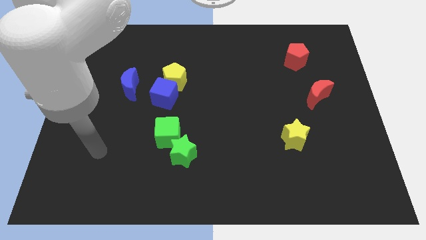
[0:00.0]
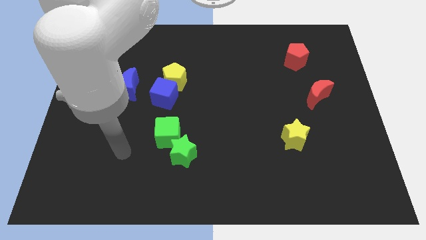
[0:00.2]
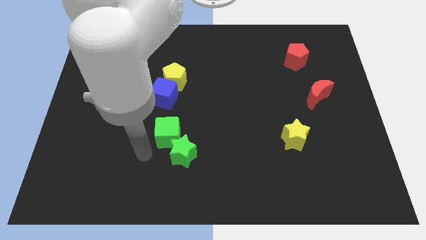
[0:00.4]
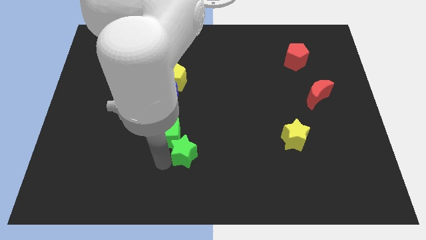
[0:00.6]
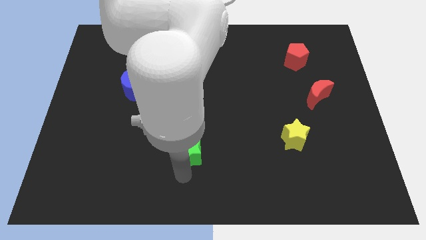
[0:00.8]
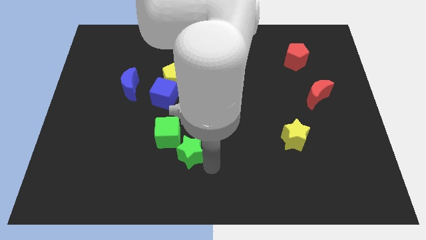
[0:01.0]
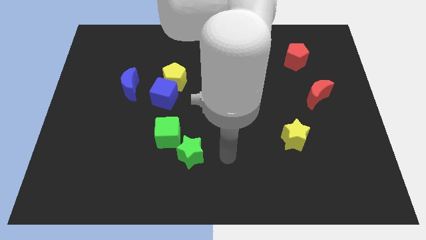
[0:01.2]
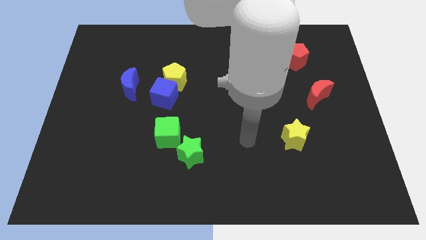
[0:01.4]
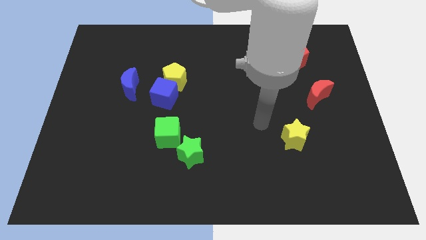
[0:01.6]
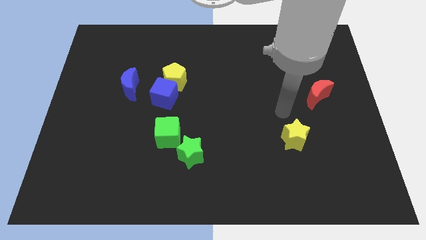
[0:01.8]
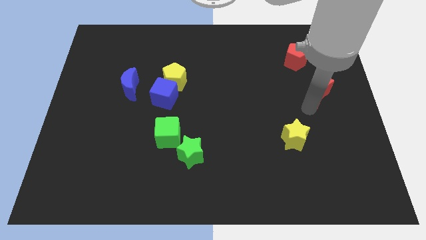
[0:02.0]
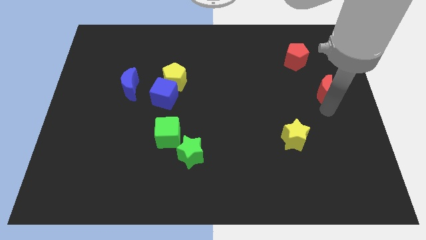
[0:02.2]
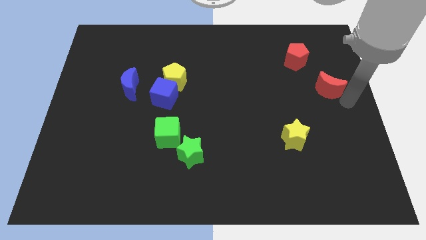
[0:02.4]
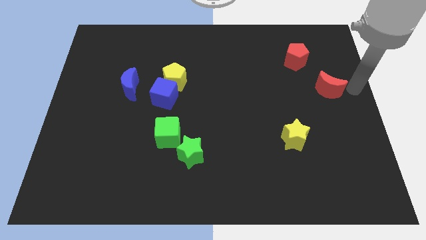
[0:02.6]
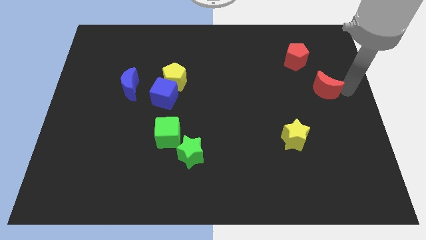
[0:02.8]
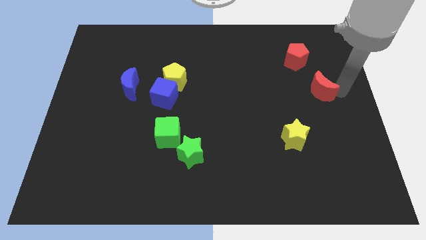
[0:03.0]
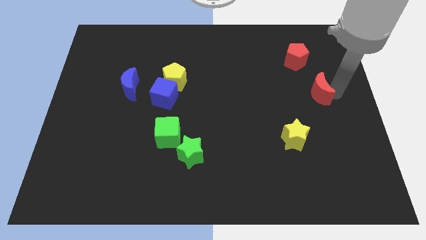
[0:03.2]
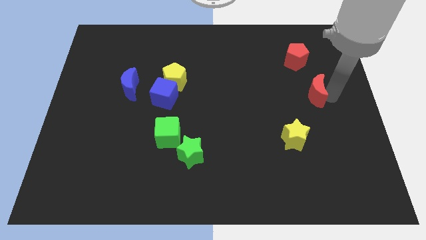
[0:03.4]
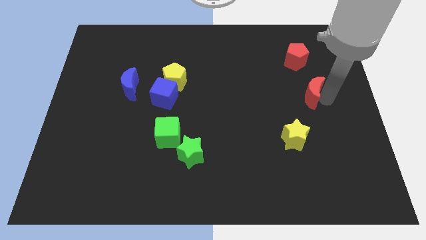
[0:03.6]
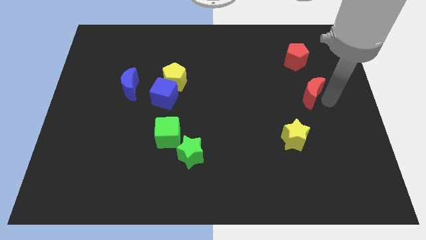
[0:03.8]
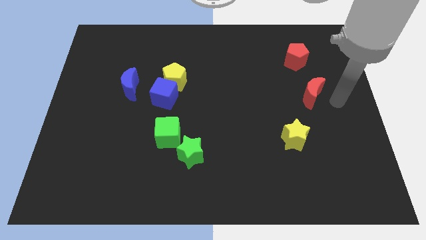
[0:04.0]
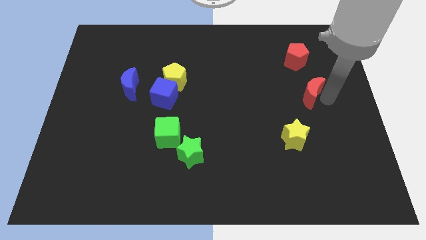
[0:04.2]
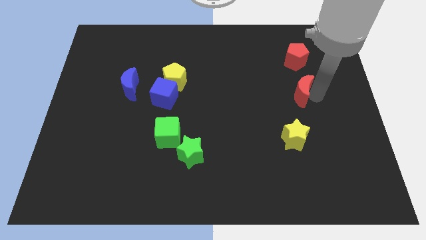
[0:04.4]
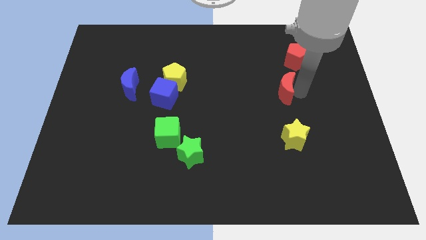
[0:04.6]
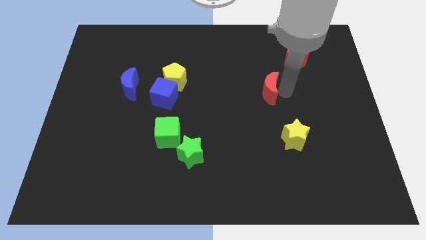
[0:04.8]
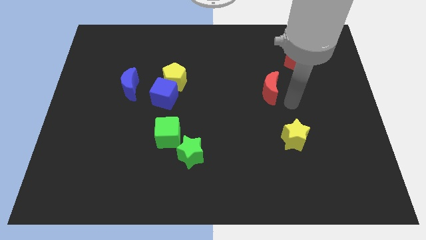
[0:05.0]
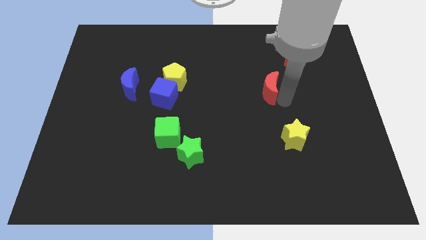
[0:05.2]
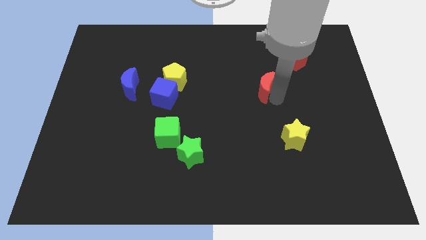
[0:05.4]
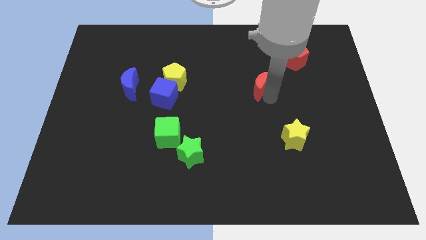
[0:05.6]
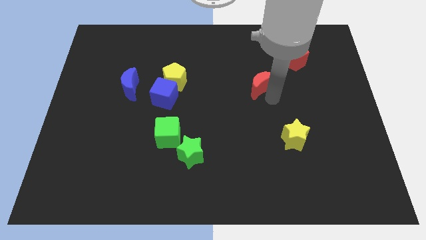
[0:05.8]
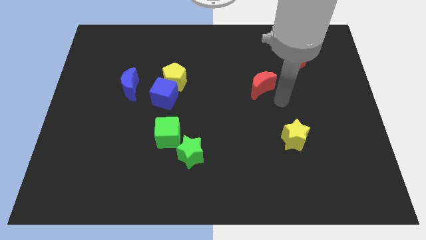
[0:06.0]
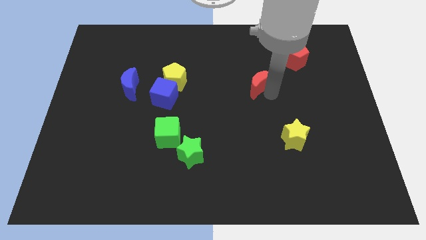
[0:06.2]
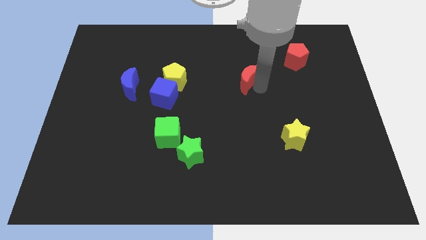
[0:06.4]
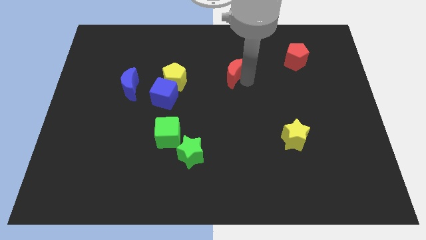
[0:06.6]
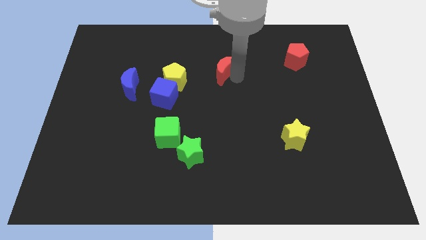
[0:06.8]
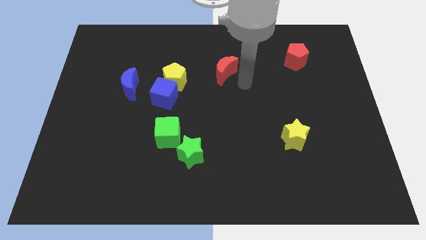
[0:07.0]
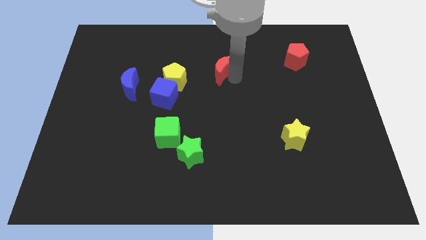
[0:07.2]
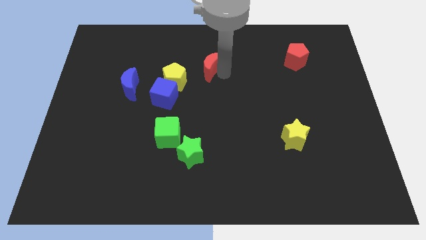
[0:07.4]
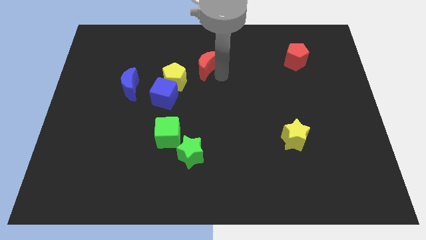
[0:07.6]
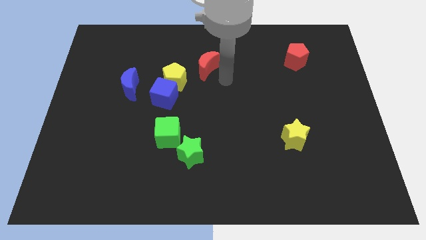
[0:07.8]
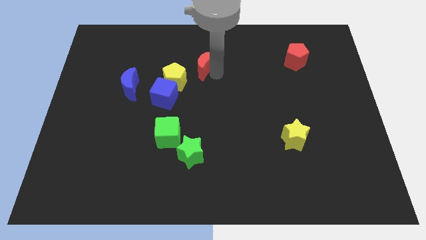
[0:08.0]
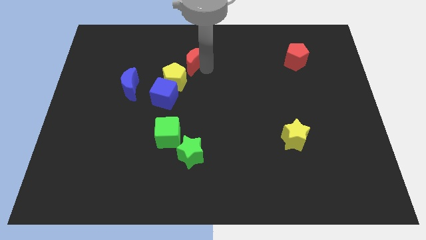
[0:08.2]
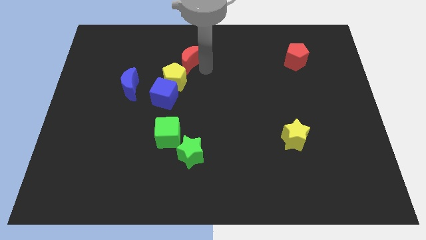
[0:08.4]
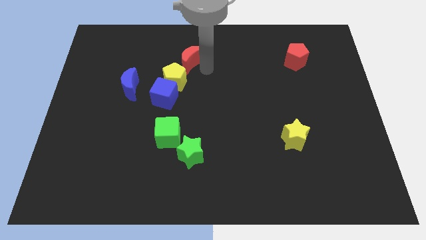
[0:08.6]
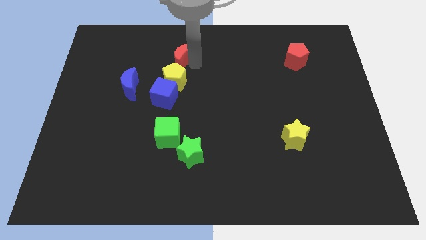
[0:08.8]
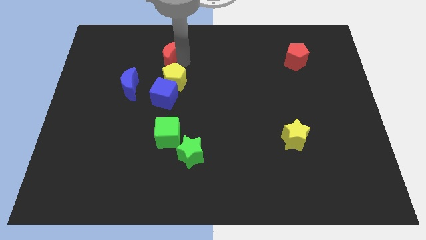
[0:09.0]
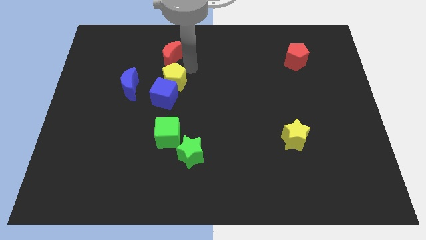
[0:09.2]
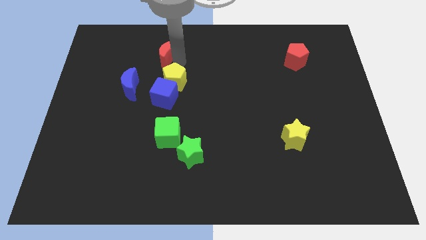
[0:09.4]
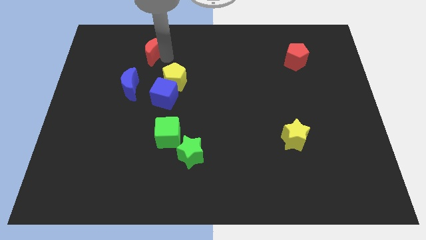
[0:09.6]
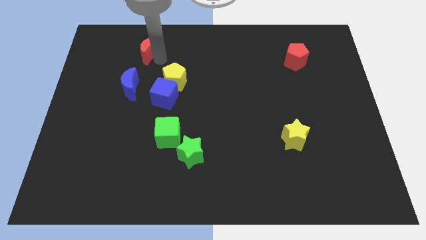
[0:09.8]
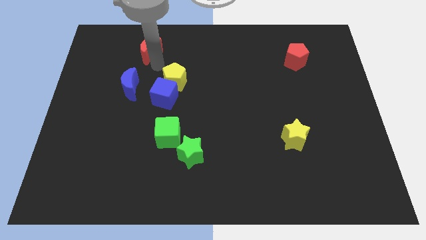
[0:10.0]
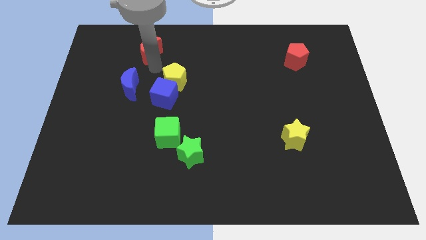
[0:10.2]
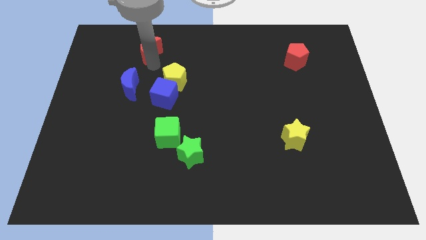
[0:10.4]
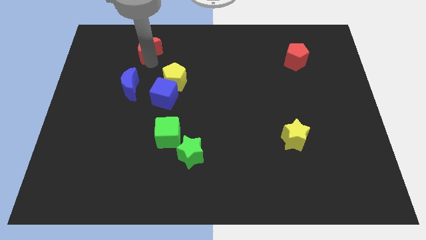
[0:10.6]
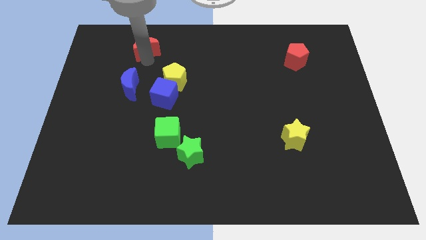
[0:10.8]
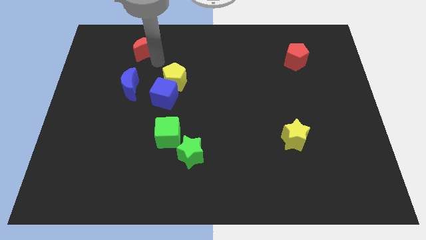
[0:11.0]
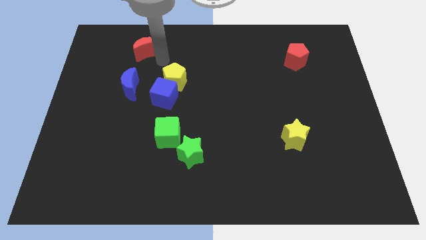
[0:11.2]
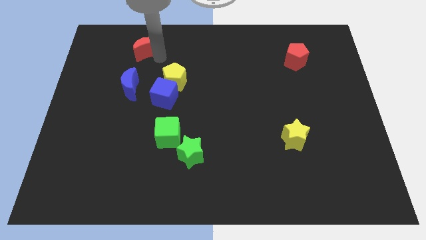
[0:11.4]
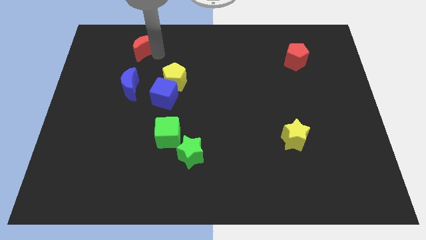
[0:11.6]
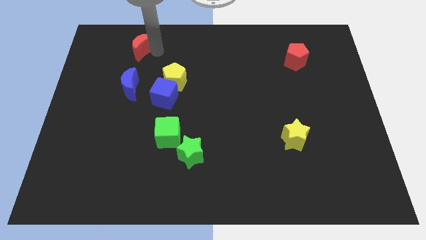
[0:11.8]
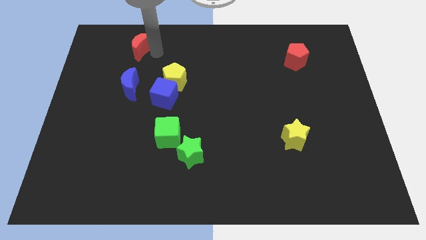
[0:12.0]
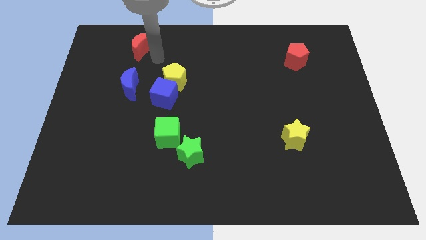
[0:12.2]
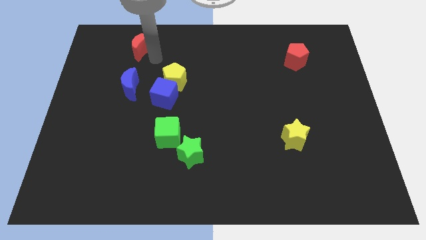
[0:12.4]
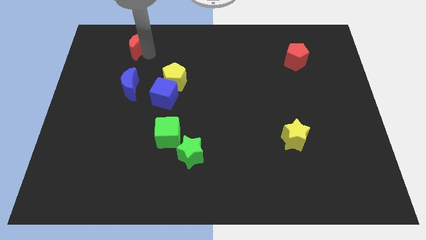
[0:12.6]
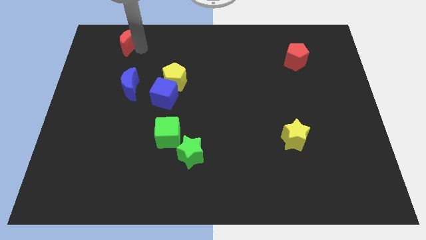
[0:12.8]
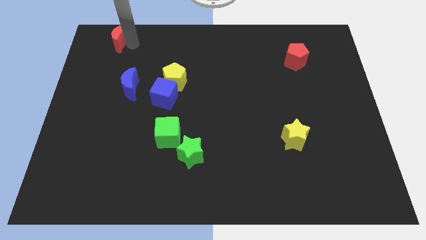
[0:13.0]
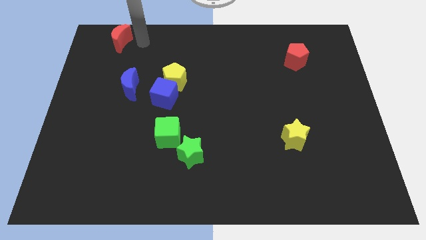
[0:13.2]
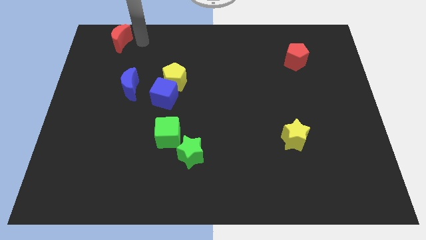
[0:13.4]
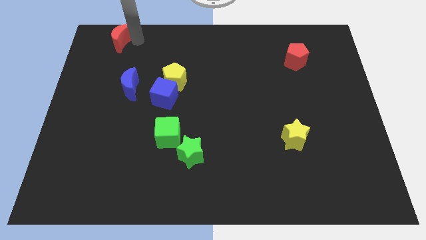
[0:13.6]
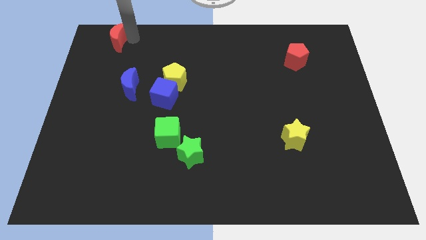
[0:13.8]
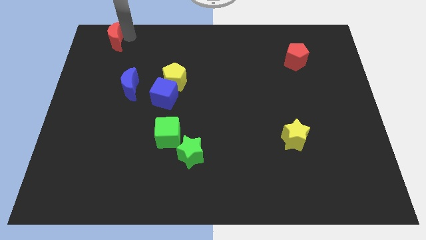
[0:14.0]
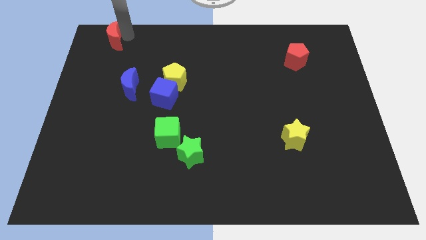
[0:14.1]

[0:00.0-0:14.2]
move the red moon to the top left corner
